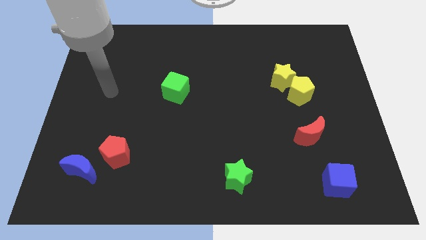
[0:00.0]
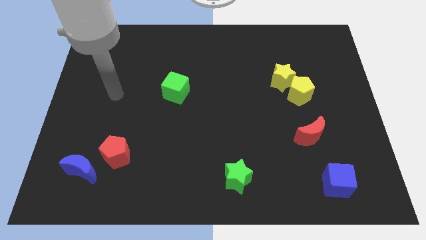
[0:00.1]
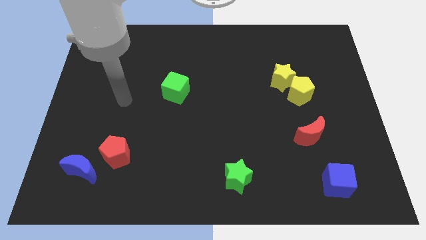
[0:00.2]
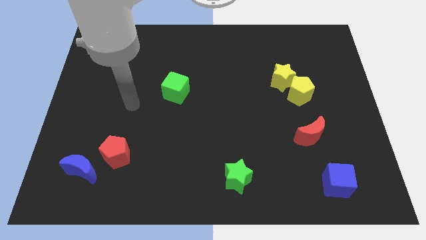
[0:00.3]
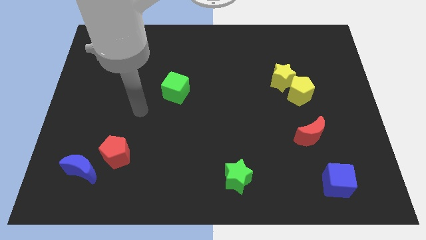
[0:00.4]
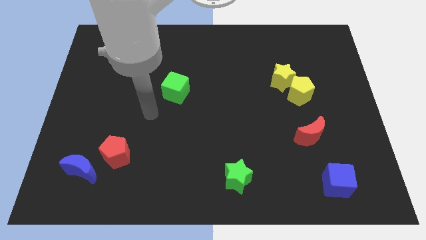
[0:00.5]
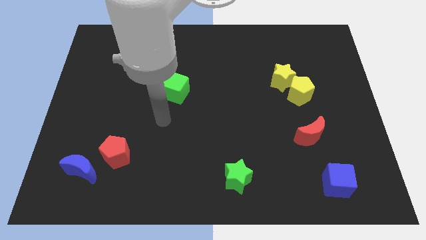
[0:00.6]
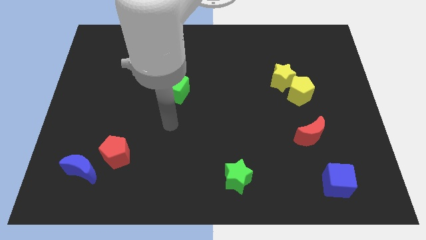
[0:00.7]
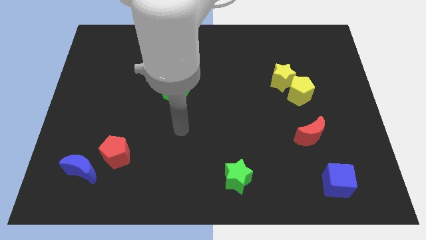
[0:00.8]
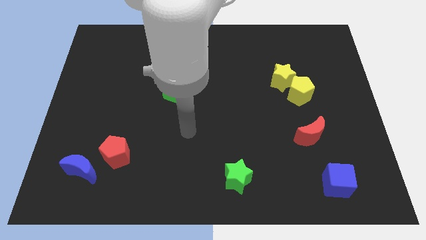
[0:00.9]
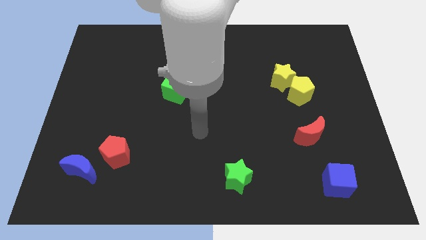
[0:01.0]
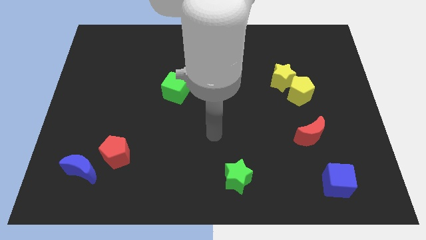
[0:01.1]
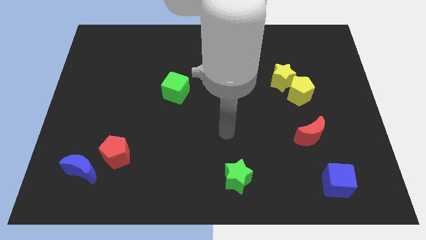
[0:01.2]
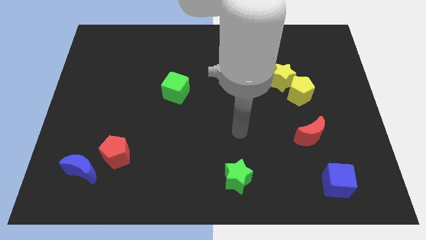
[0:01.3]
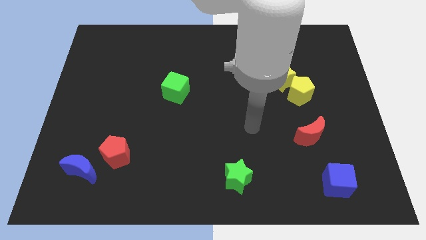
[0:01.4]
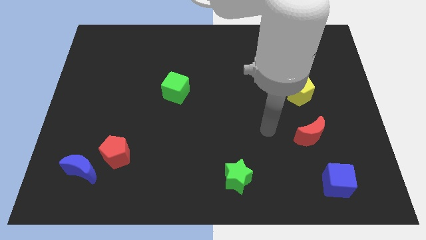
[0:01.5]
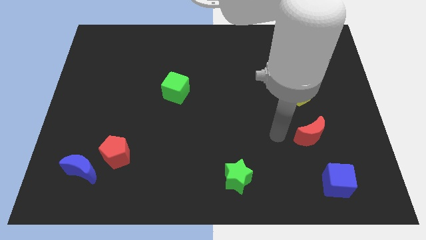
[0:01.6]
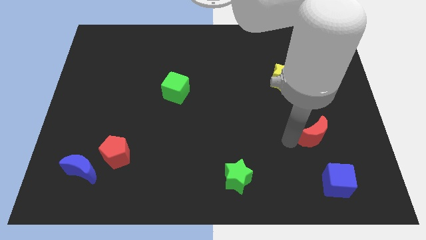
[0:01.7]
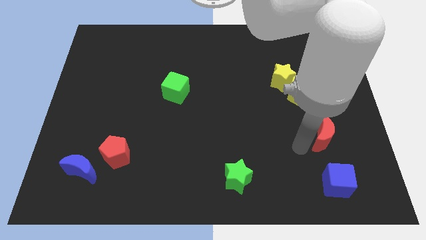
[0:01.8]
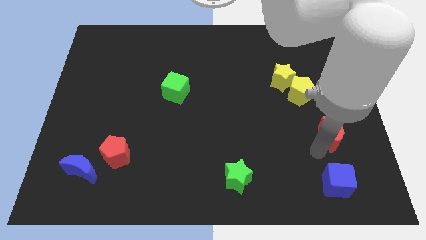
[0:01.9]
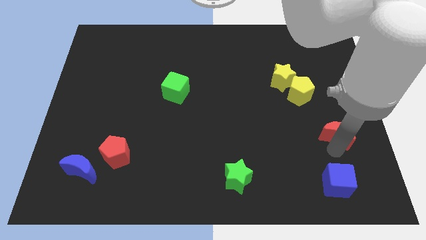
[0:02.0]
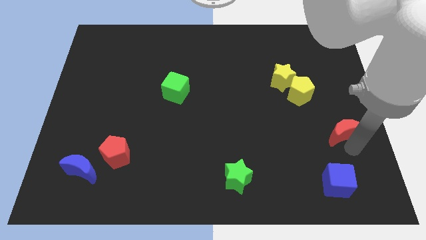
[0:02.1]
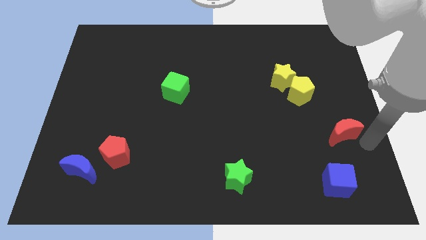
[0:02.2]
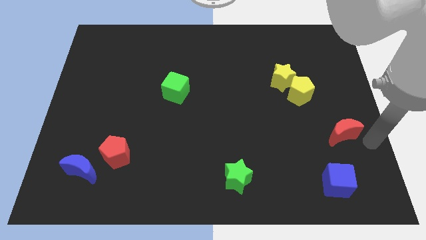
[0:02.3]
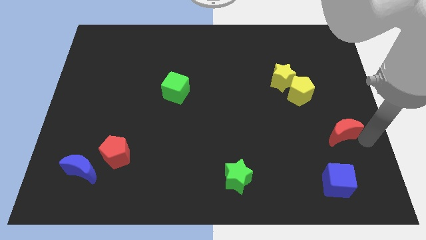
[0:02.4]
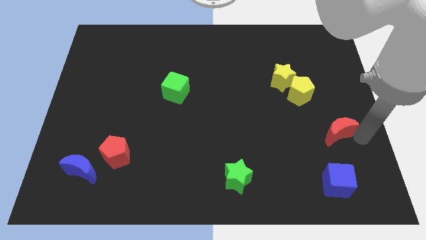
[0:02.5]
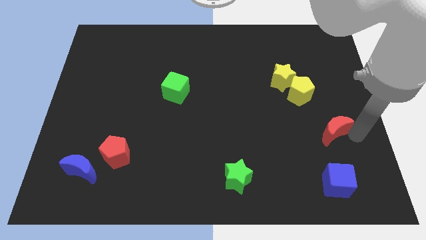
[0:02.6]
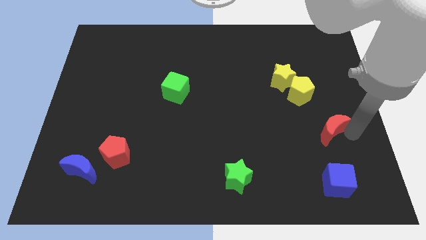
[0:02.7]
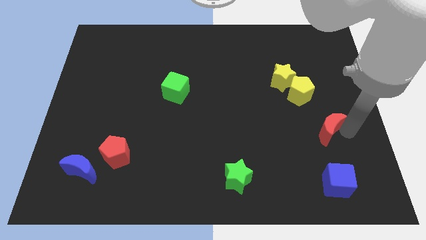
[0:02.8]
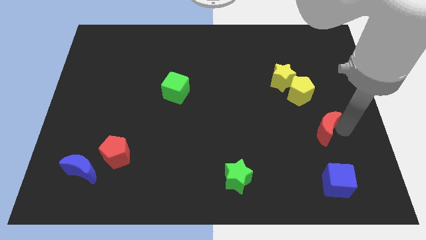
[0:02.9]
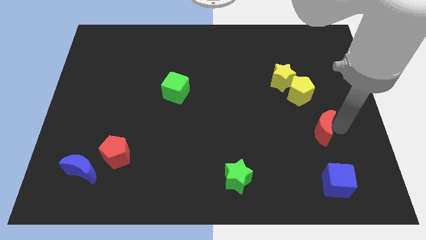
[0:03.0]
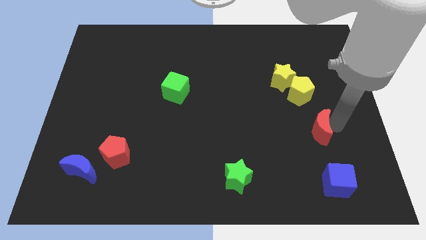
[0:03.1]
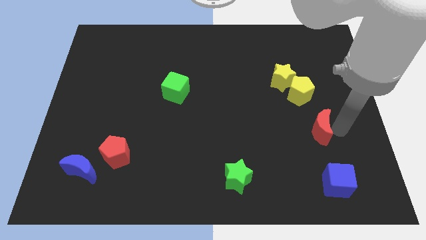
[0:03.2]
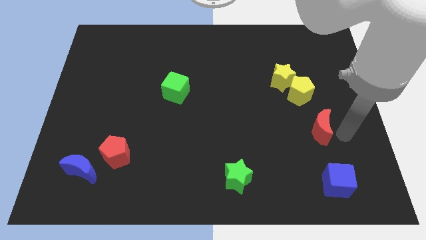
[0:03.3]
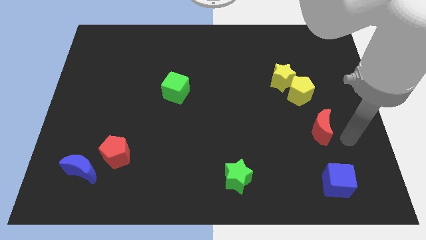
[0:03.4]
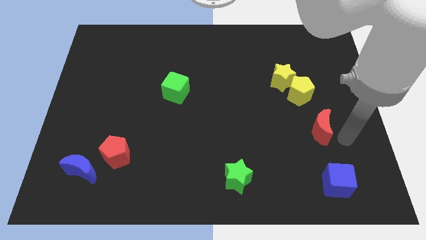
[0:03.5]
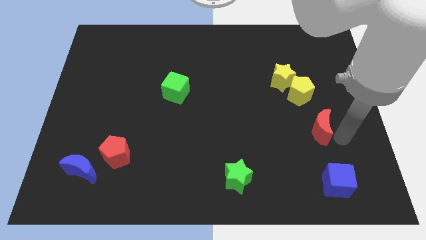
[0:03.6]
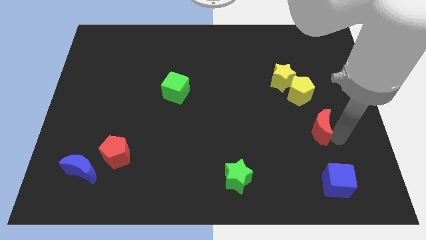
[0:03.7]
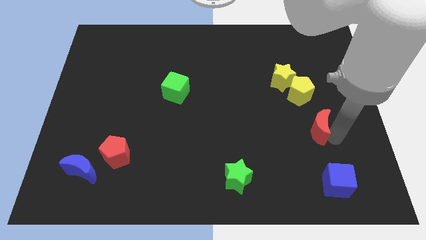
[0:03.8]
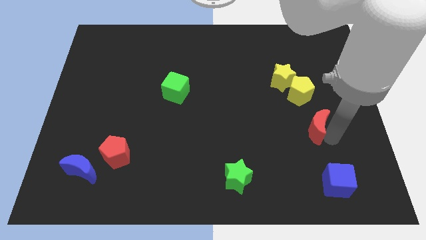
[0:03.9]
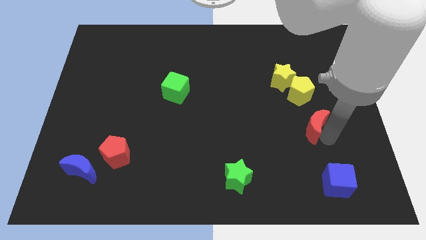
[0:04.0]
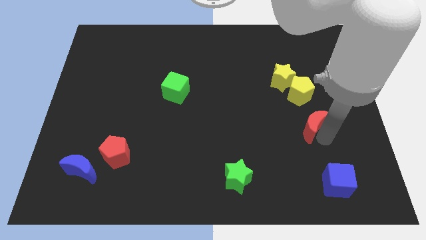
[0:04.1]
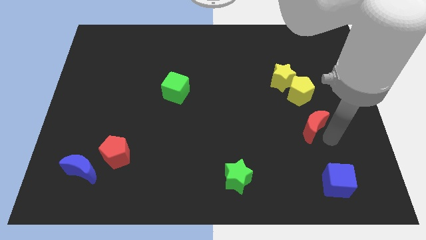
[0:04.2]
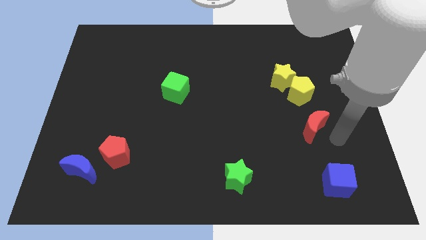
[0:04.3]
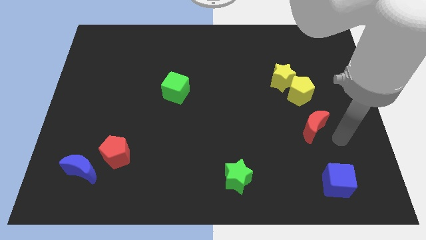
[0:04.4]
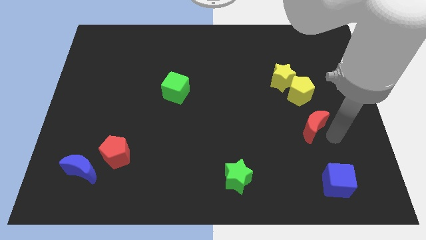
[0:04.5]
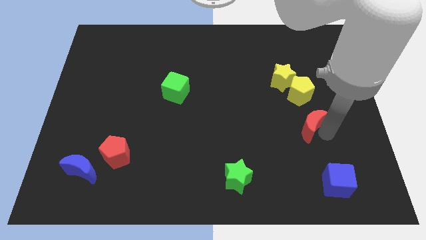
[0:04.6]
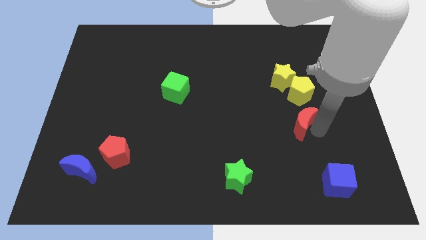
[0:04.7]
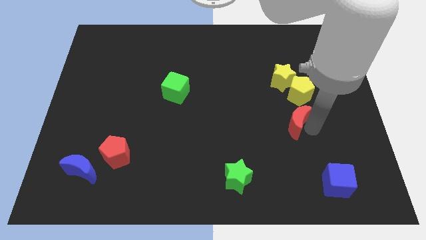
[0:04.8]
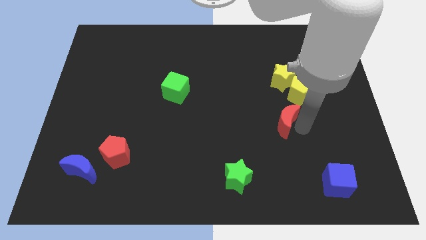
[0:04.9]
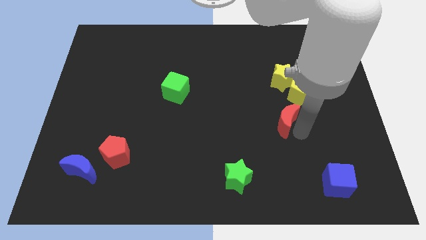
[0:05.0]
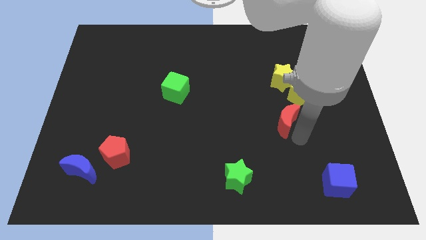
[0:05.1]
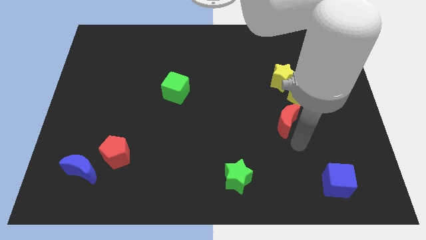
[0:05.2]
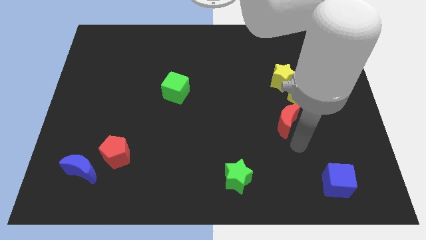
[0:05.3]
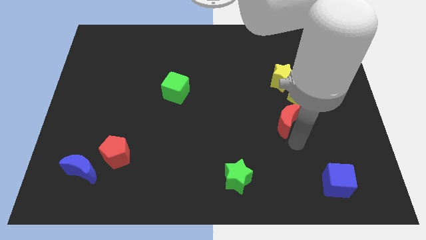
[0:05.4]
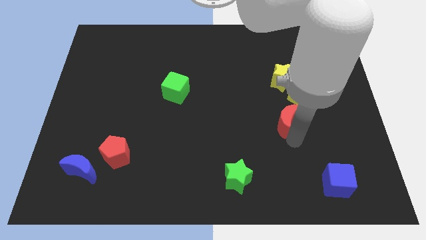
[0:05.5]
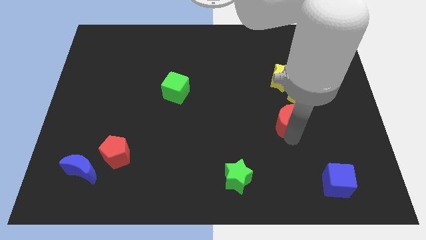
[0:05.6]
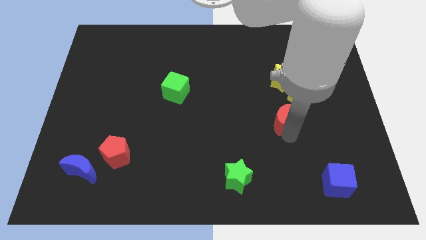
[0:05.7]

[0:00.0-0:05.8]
slide the red moon up and left somewhat

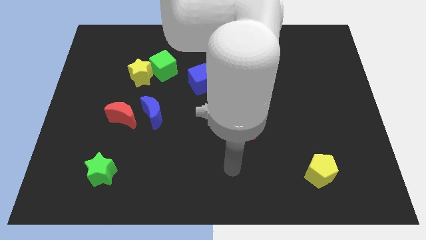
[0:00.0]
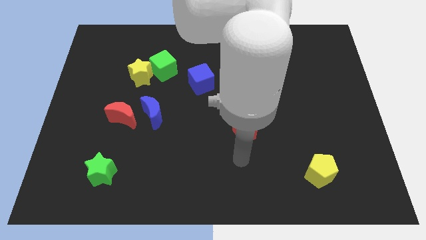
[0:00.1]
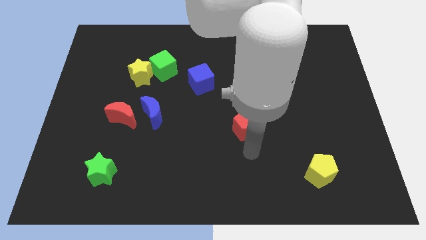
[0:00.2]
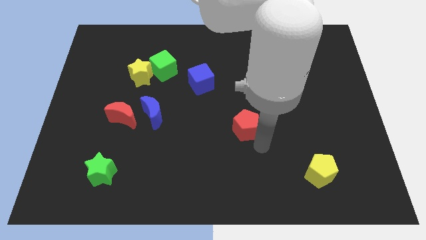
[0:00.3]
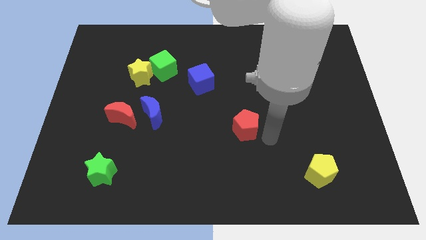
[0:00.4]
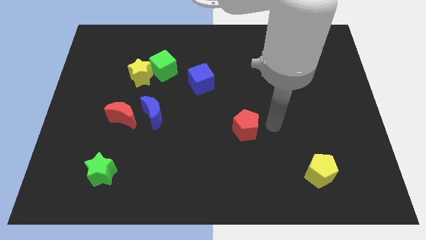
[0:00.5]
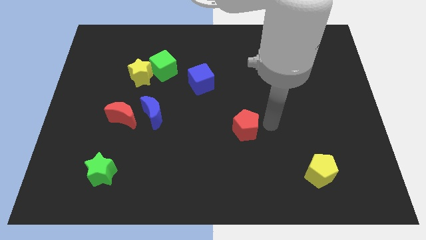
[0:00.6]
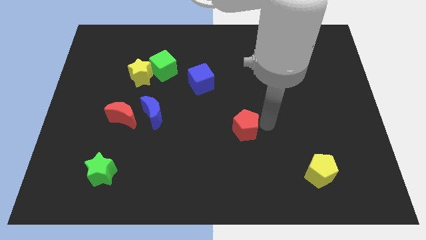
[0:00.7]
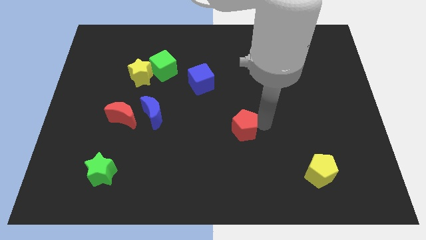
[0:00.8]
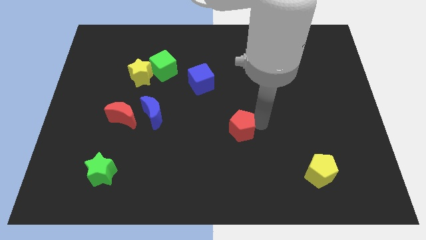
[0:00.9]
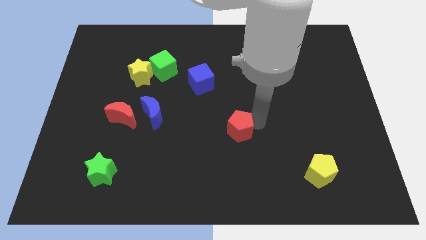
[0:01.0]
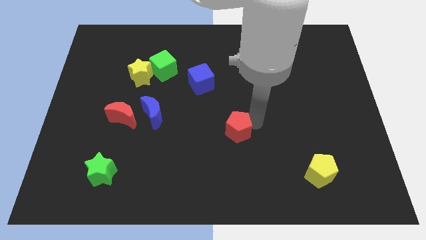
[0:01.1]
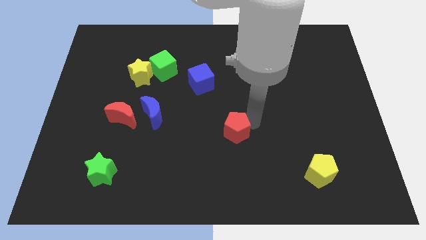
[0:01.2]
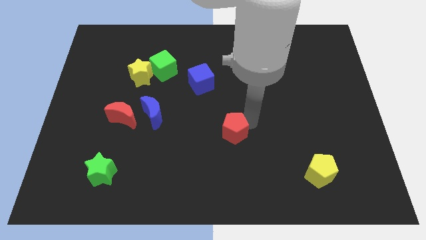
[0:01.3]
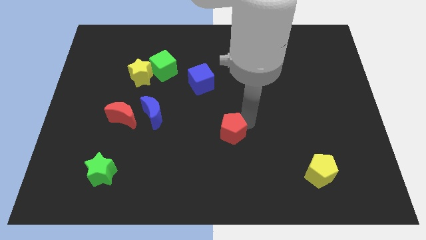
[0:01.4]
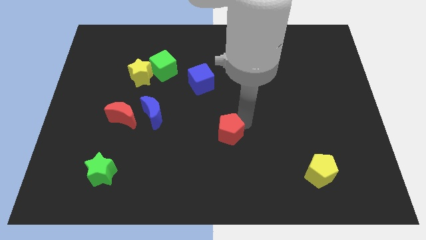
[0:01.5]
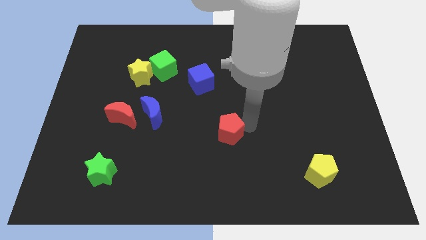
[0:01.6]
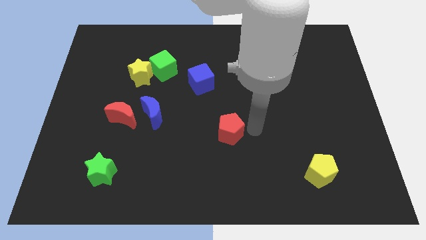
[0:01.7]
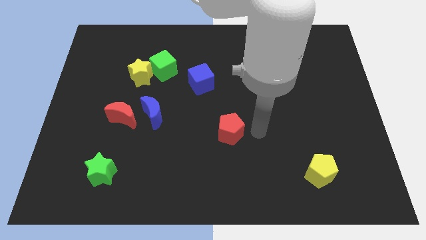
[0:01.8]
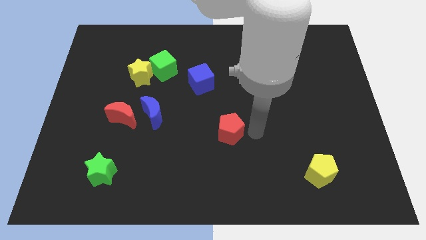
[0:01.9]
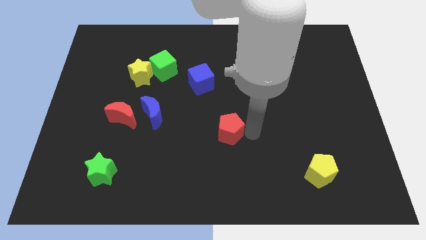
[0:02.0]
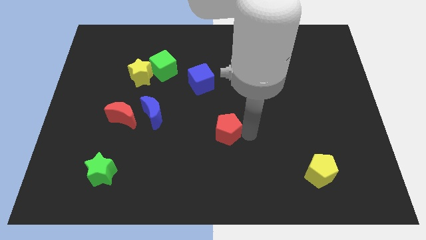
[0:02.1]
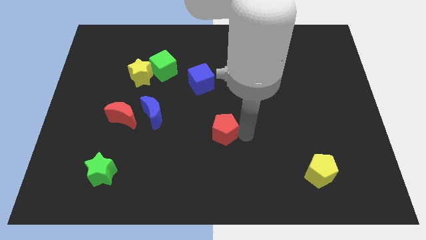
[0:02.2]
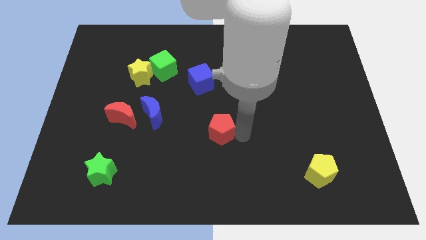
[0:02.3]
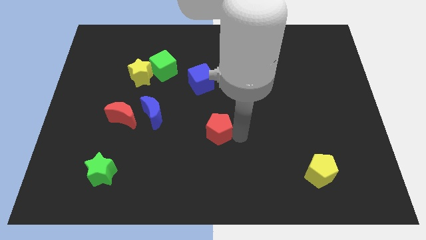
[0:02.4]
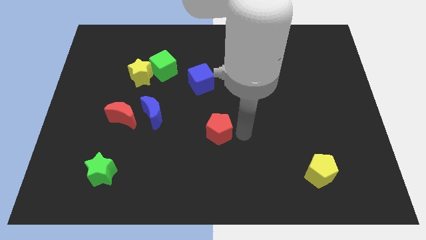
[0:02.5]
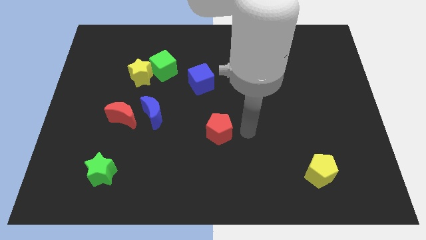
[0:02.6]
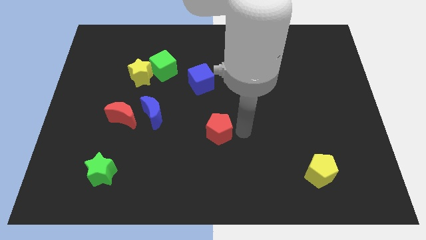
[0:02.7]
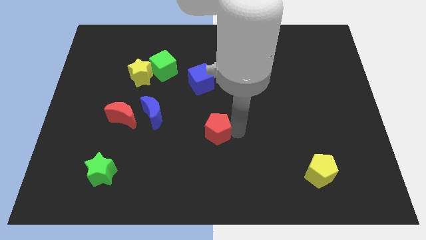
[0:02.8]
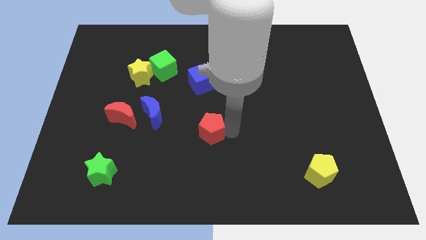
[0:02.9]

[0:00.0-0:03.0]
slightly move the red pentagon left
